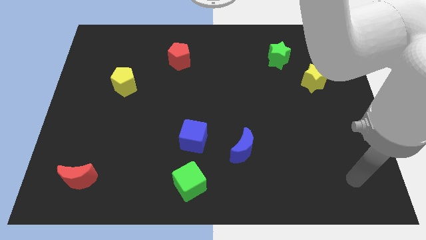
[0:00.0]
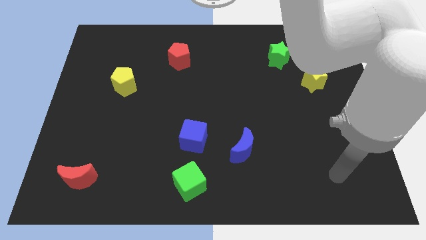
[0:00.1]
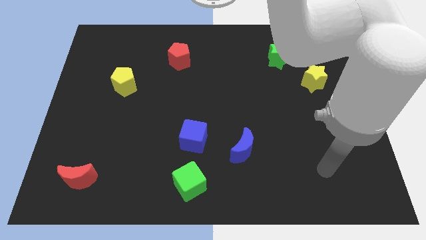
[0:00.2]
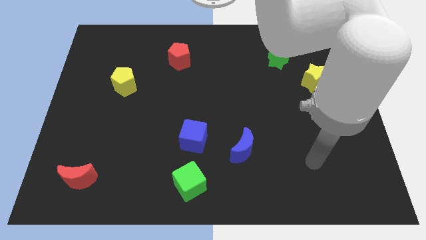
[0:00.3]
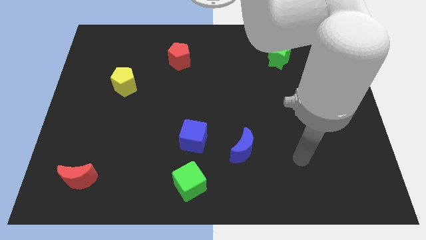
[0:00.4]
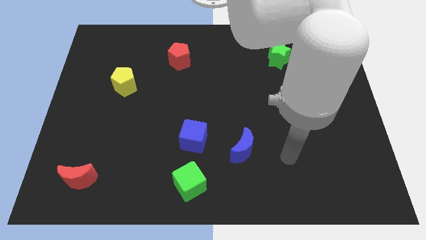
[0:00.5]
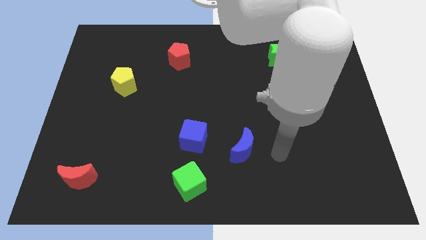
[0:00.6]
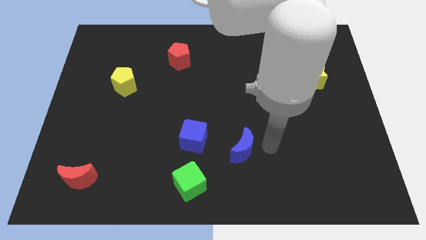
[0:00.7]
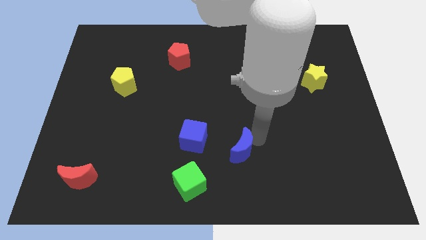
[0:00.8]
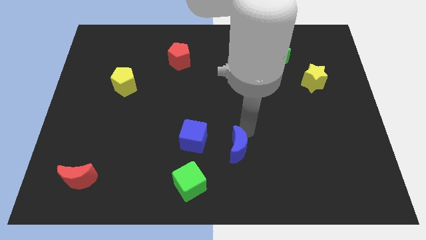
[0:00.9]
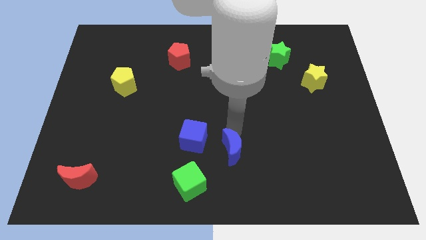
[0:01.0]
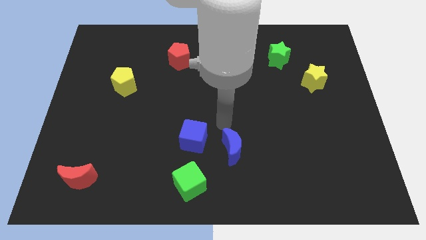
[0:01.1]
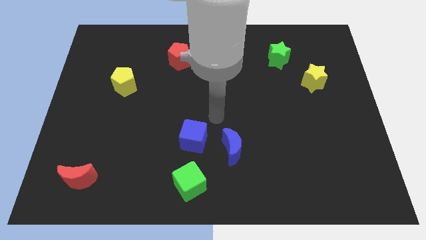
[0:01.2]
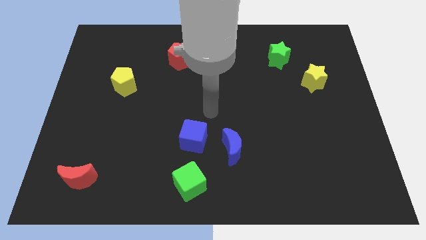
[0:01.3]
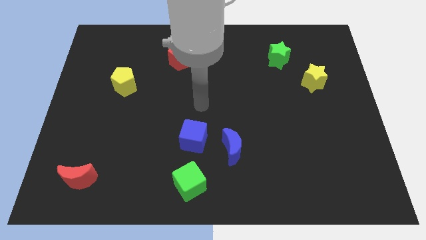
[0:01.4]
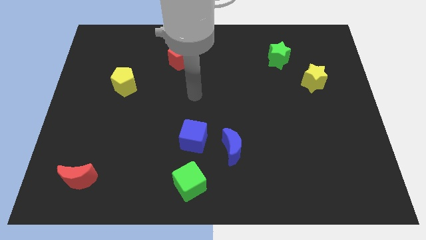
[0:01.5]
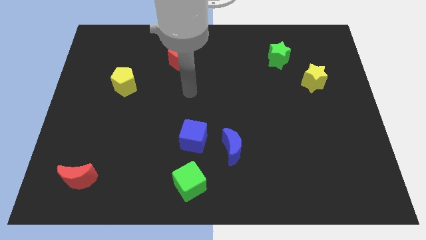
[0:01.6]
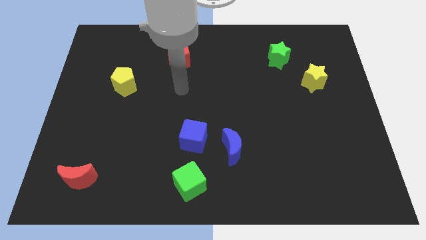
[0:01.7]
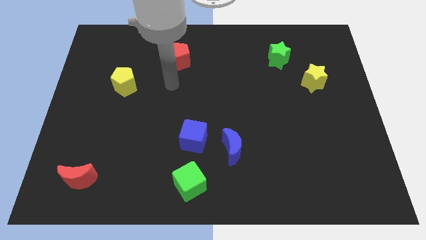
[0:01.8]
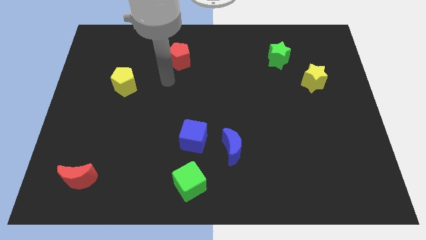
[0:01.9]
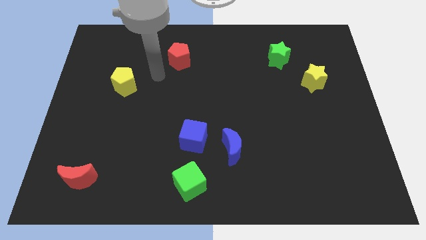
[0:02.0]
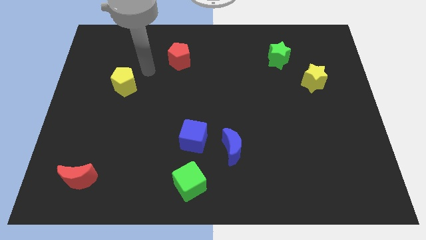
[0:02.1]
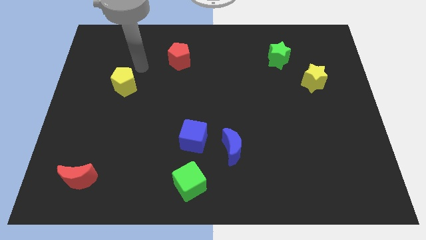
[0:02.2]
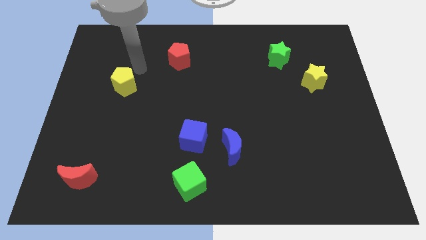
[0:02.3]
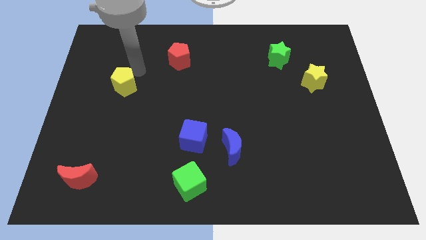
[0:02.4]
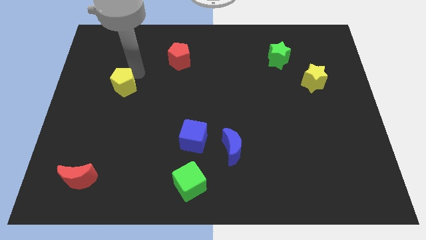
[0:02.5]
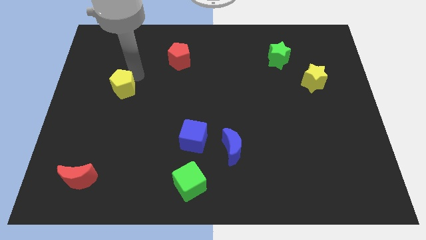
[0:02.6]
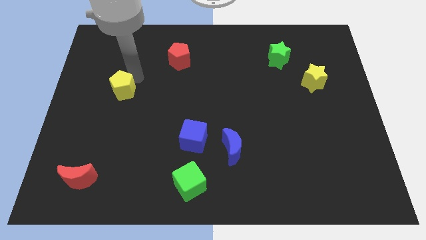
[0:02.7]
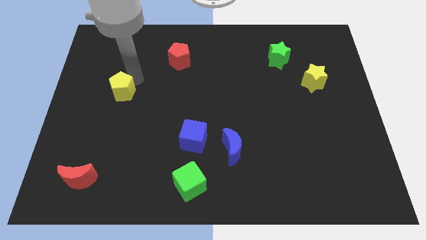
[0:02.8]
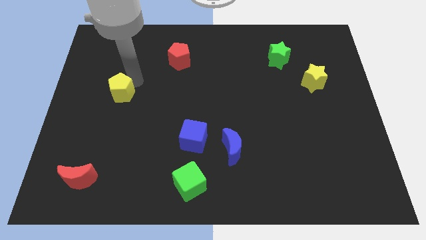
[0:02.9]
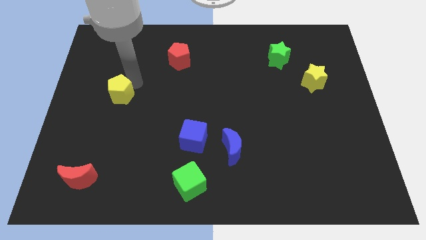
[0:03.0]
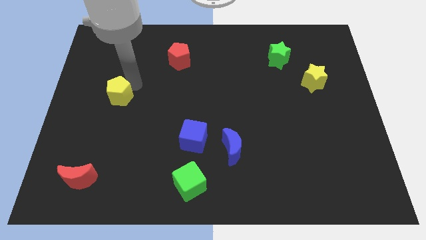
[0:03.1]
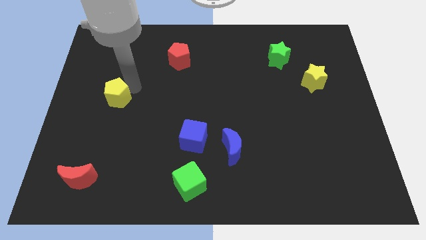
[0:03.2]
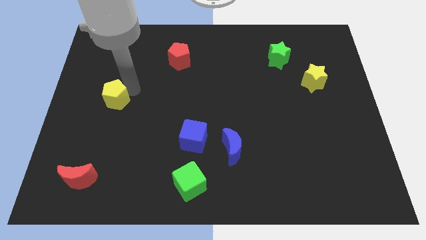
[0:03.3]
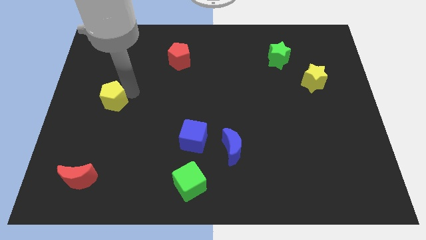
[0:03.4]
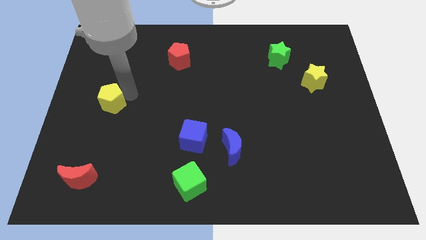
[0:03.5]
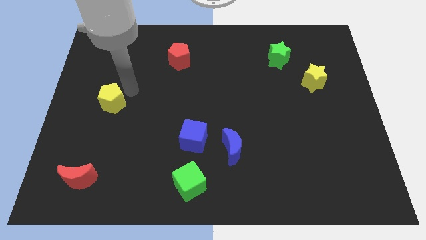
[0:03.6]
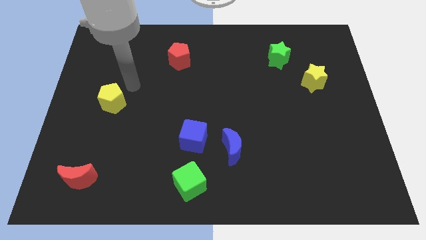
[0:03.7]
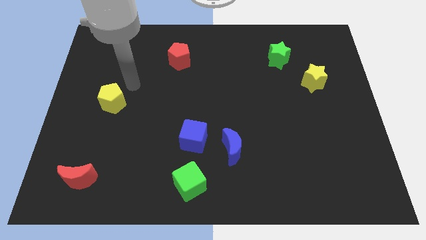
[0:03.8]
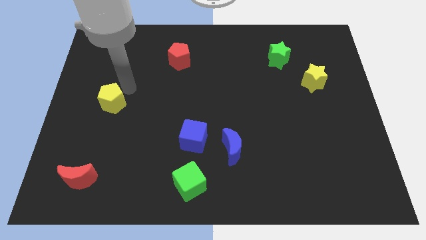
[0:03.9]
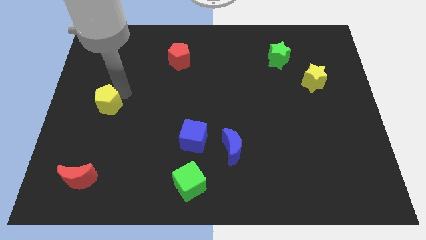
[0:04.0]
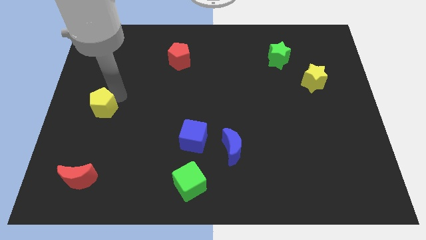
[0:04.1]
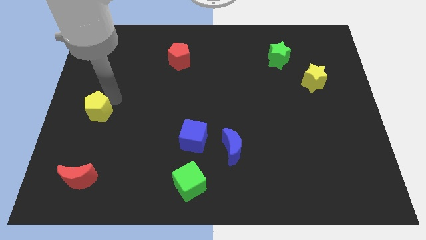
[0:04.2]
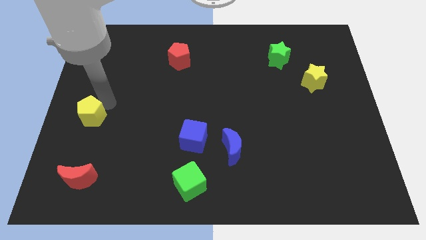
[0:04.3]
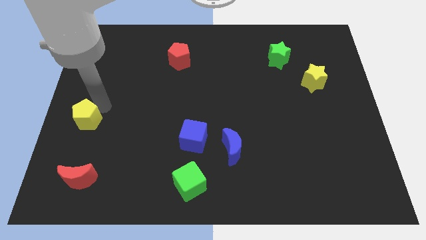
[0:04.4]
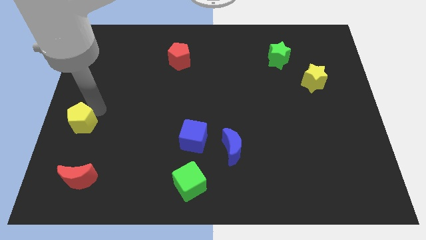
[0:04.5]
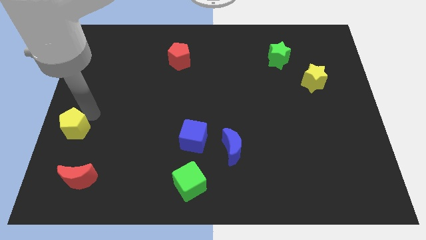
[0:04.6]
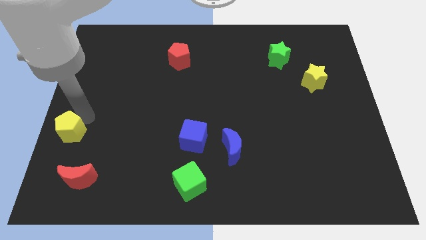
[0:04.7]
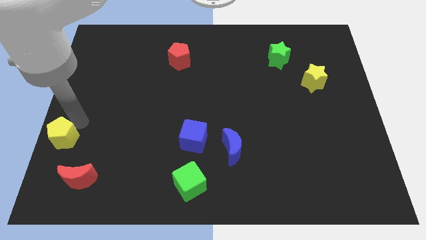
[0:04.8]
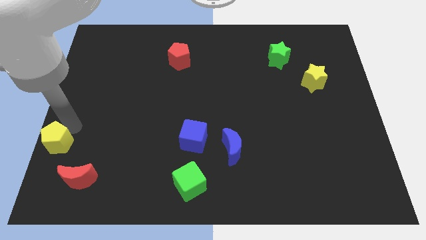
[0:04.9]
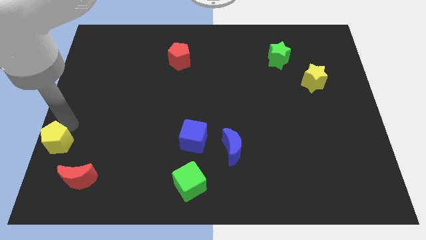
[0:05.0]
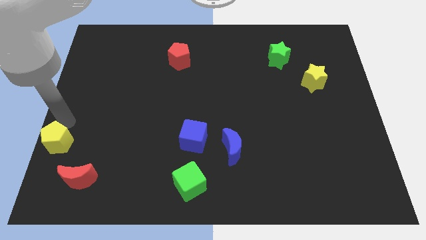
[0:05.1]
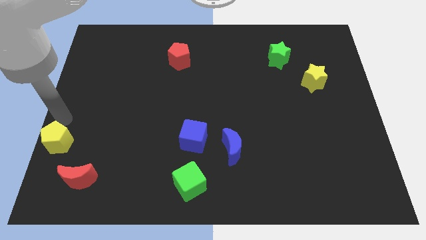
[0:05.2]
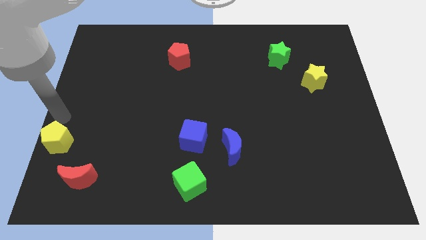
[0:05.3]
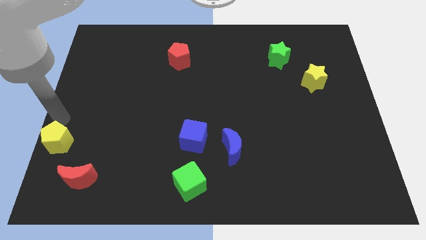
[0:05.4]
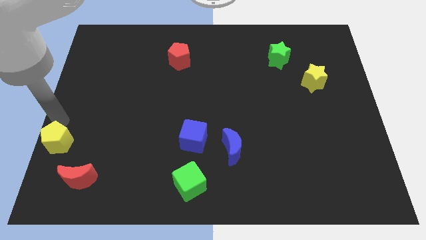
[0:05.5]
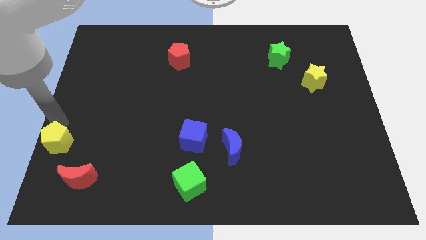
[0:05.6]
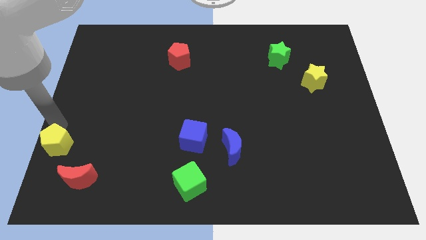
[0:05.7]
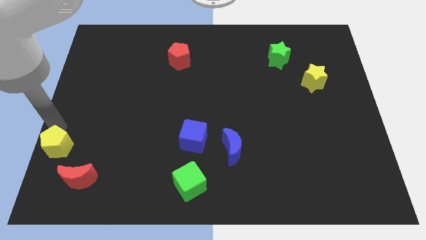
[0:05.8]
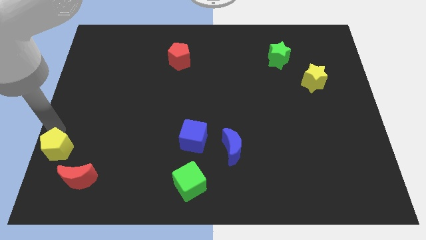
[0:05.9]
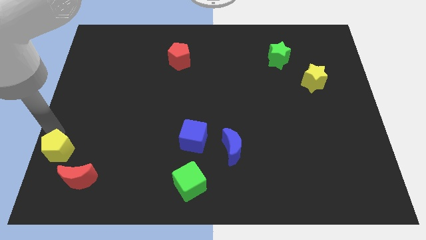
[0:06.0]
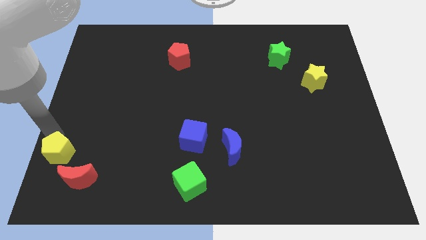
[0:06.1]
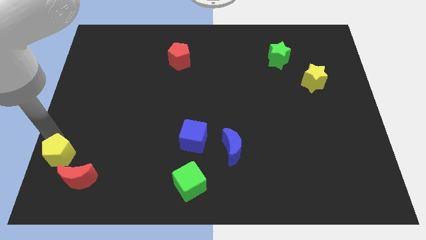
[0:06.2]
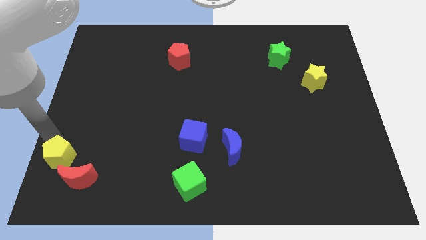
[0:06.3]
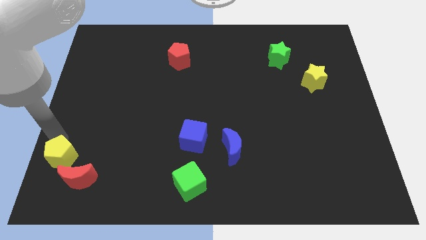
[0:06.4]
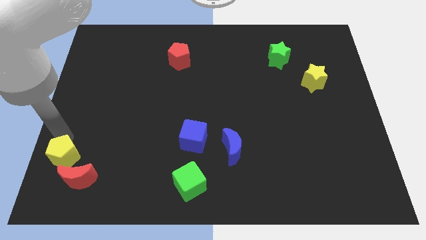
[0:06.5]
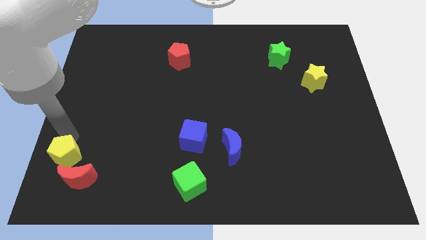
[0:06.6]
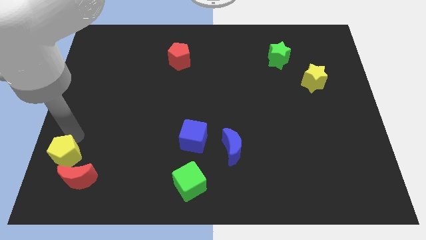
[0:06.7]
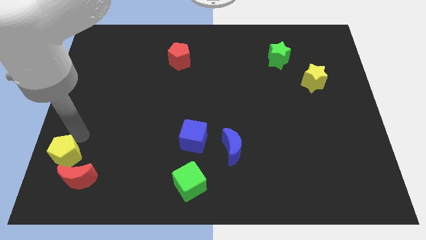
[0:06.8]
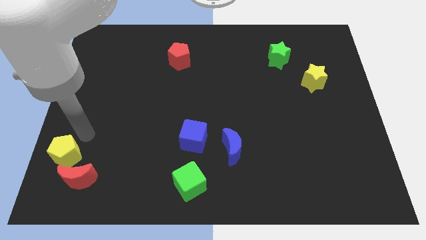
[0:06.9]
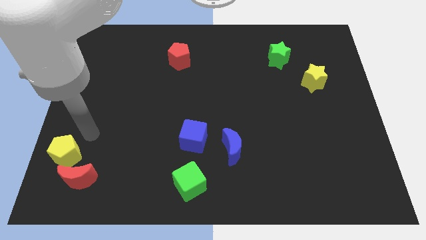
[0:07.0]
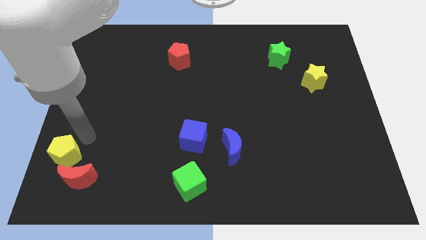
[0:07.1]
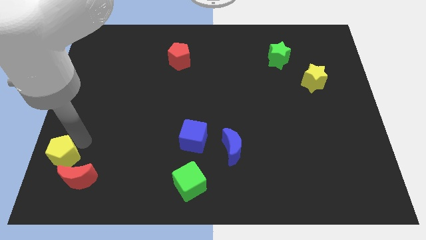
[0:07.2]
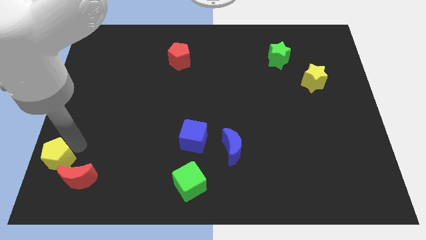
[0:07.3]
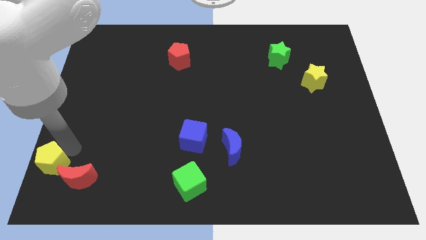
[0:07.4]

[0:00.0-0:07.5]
move the yellow pentagon to the bottom left of the board
